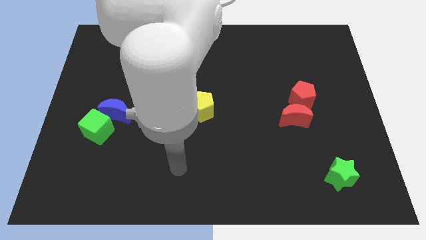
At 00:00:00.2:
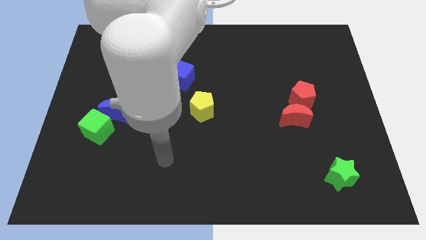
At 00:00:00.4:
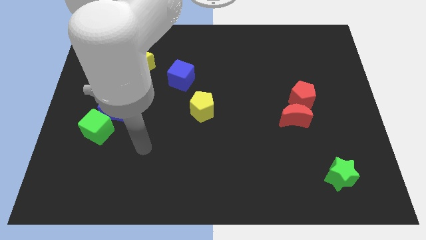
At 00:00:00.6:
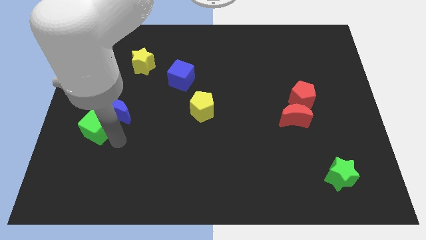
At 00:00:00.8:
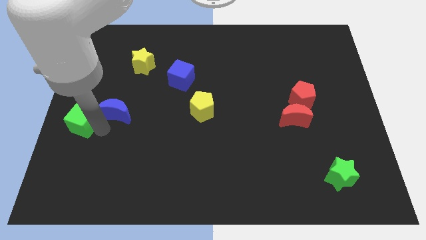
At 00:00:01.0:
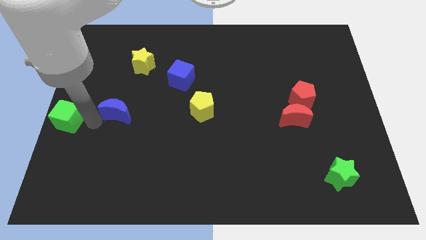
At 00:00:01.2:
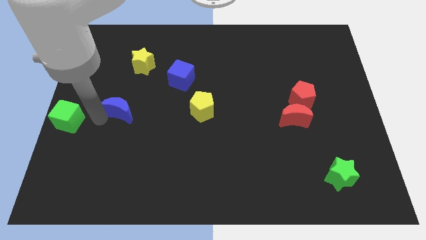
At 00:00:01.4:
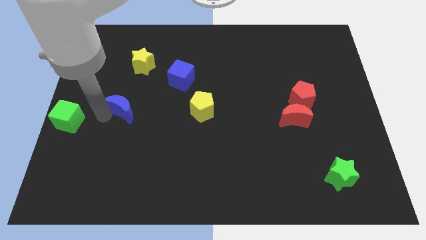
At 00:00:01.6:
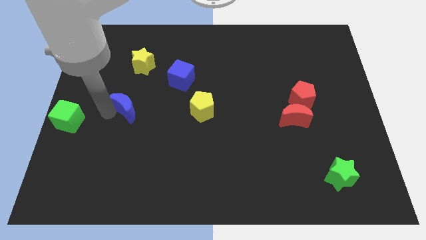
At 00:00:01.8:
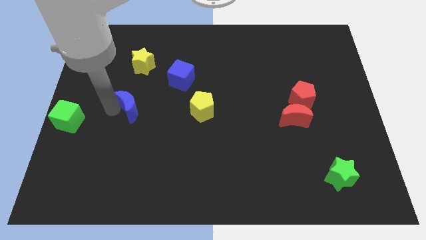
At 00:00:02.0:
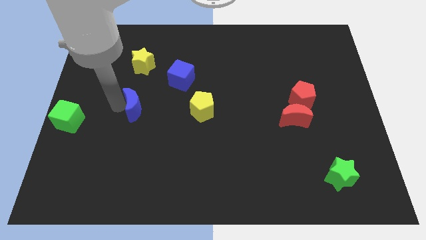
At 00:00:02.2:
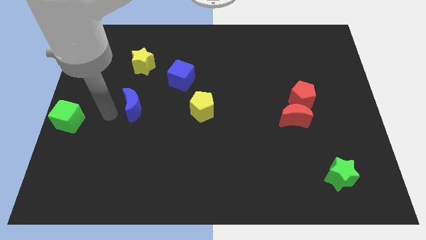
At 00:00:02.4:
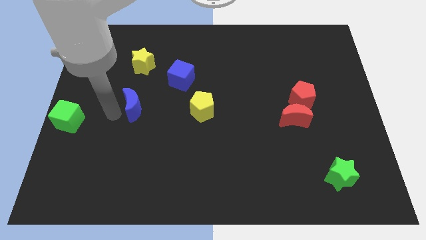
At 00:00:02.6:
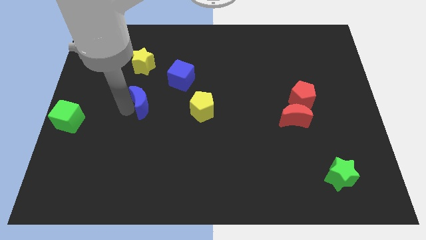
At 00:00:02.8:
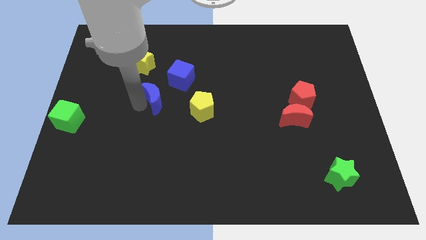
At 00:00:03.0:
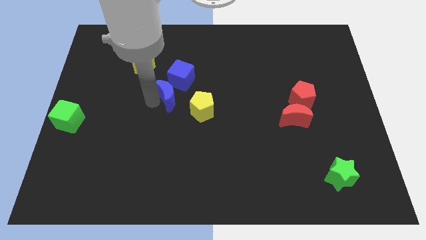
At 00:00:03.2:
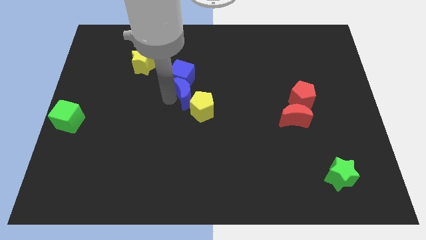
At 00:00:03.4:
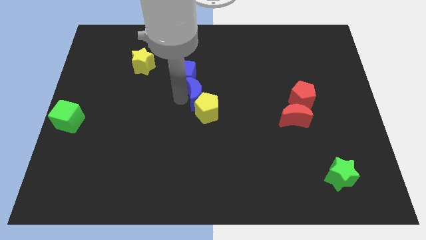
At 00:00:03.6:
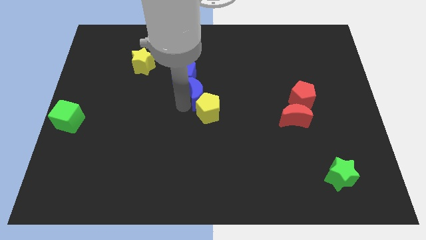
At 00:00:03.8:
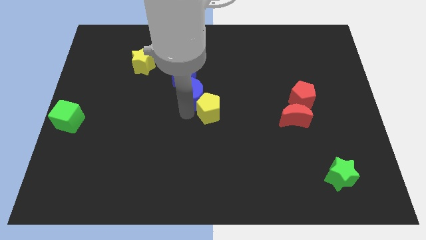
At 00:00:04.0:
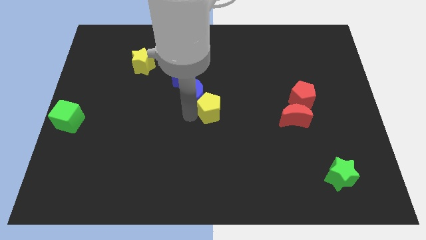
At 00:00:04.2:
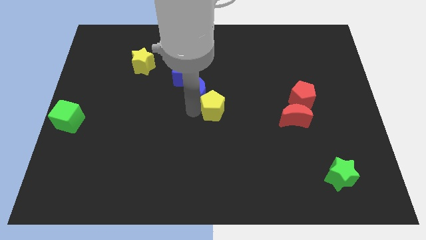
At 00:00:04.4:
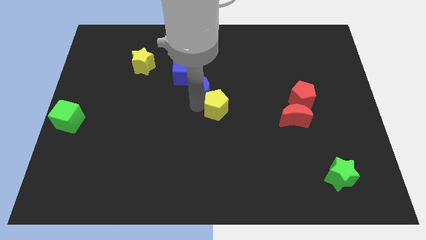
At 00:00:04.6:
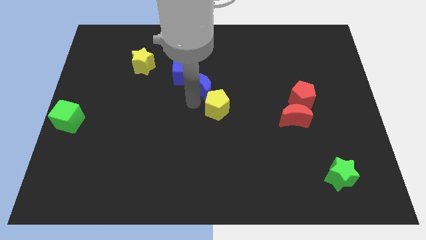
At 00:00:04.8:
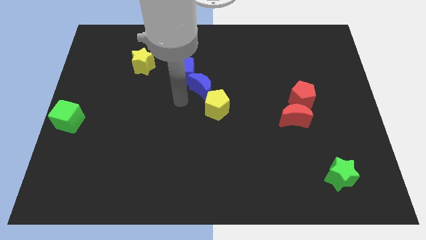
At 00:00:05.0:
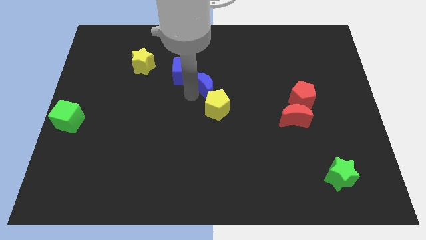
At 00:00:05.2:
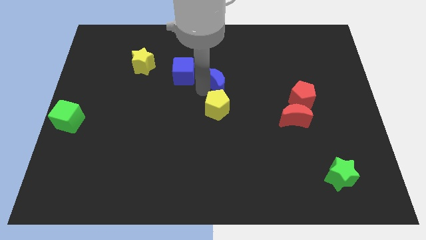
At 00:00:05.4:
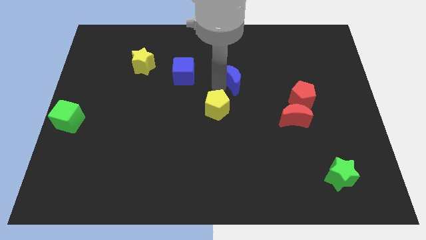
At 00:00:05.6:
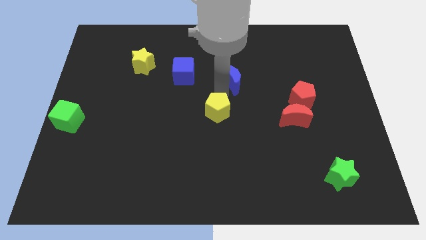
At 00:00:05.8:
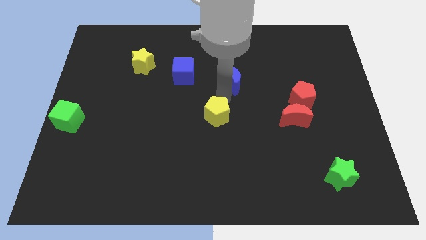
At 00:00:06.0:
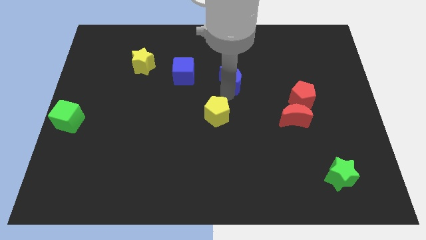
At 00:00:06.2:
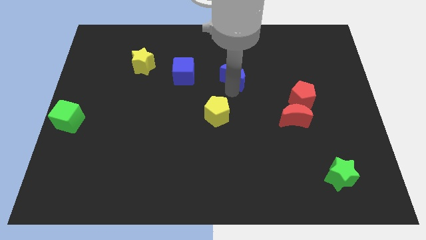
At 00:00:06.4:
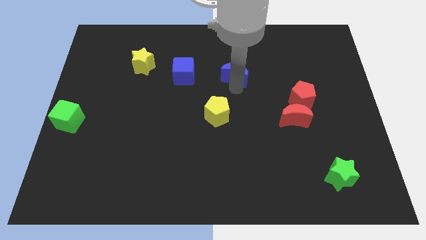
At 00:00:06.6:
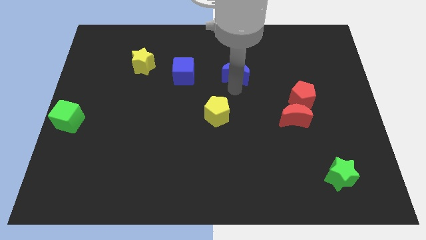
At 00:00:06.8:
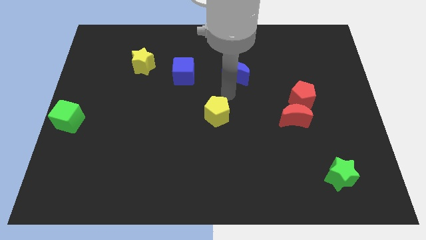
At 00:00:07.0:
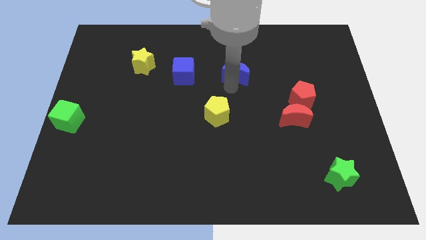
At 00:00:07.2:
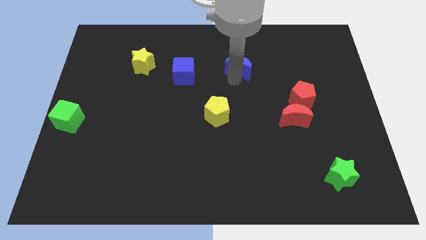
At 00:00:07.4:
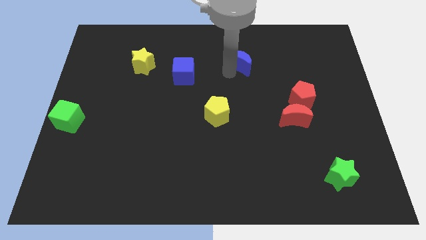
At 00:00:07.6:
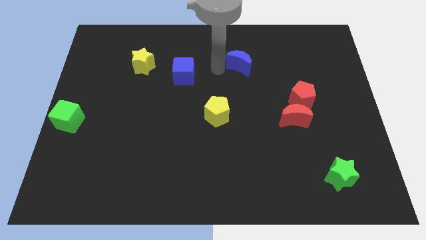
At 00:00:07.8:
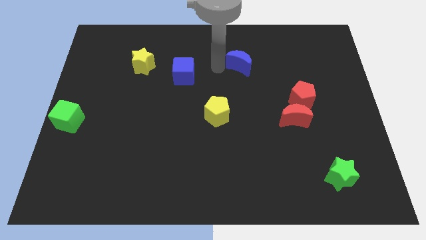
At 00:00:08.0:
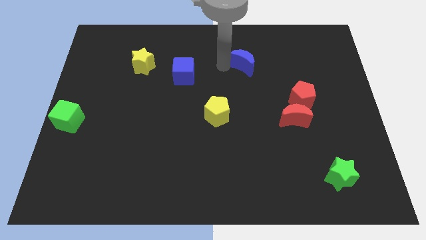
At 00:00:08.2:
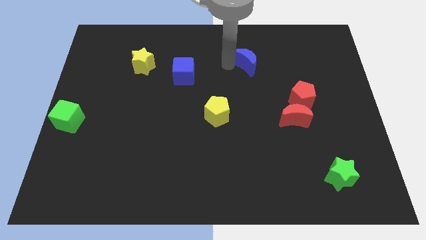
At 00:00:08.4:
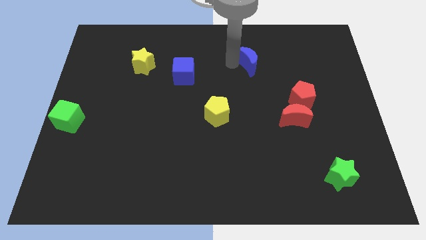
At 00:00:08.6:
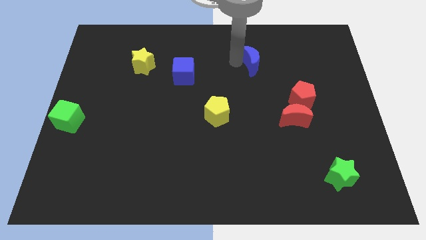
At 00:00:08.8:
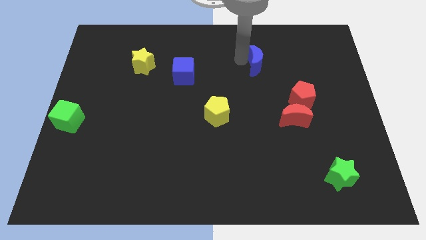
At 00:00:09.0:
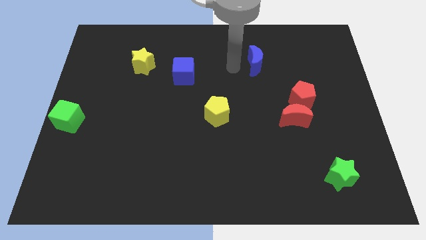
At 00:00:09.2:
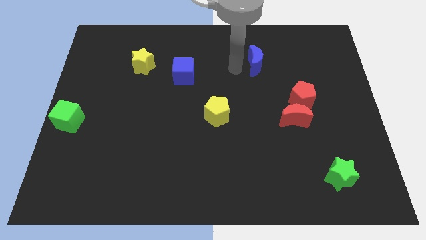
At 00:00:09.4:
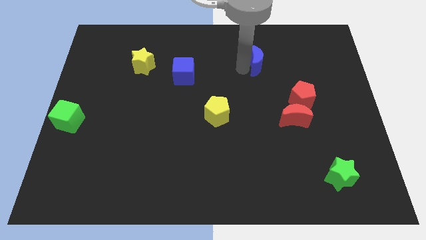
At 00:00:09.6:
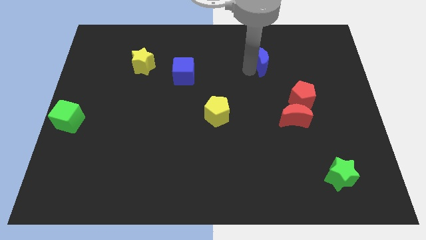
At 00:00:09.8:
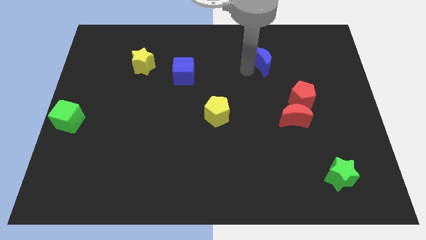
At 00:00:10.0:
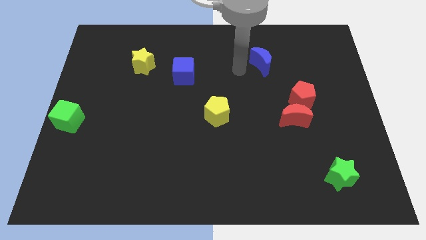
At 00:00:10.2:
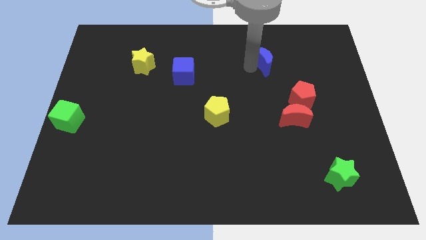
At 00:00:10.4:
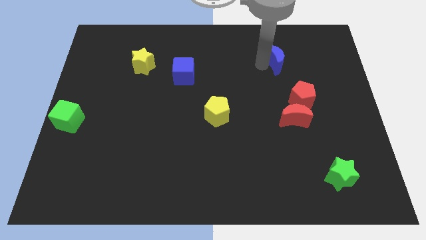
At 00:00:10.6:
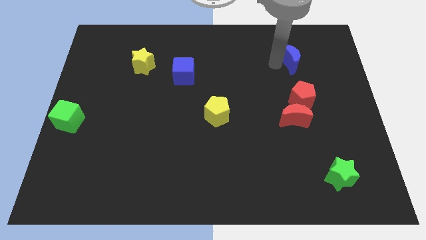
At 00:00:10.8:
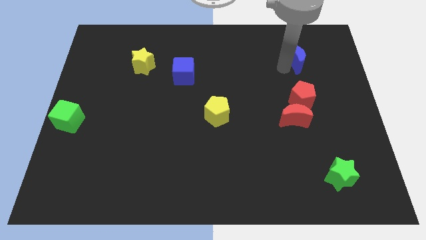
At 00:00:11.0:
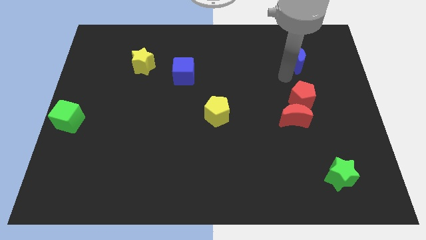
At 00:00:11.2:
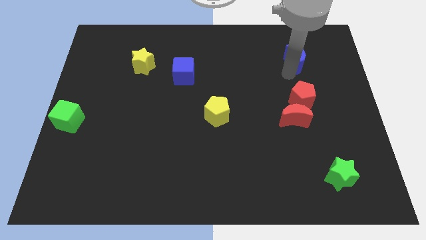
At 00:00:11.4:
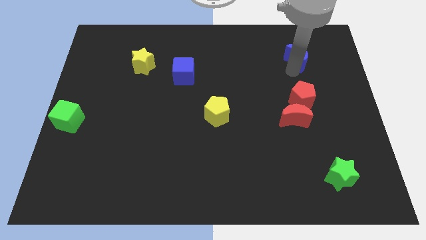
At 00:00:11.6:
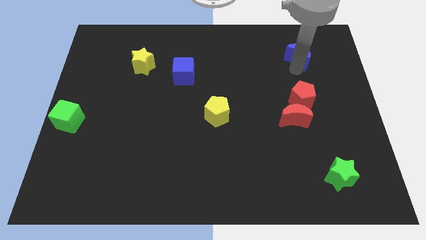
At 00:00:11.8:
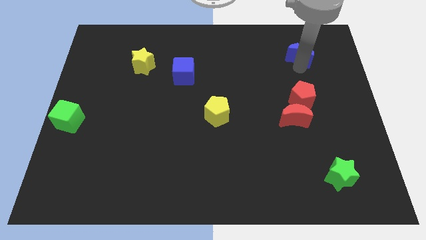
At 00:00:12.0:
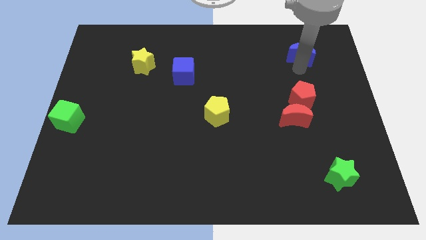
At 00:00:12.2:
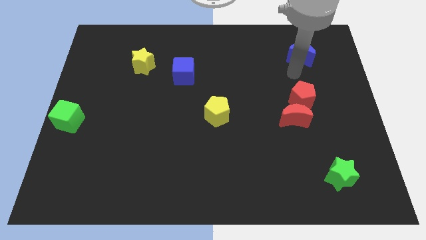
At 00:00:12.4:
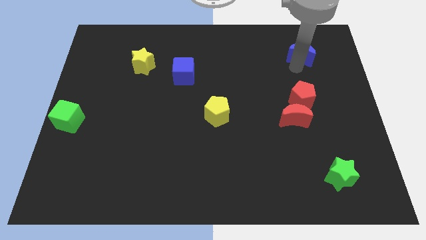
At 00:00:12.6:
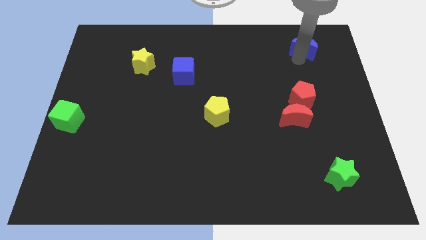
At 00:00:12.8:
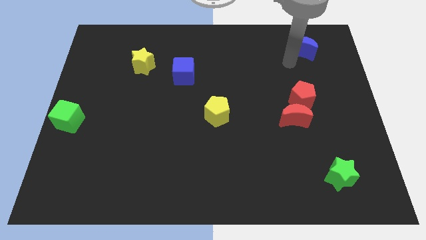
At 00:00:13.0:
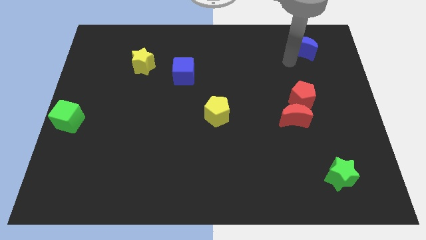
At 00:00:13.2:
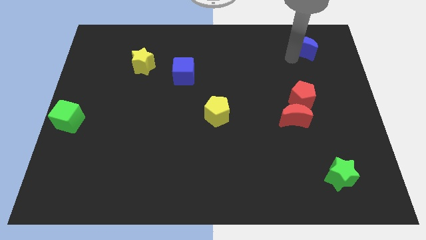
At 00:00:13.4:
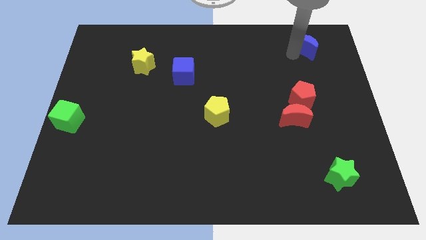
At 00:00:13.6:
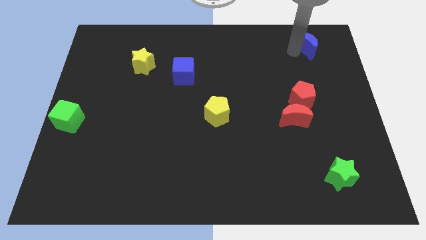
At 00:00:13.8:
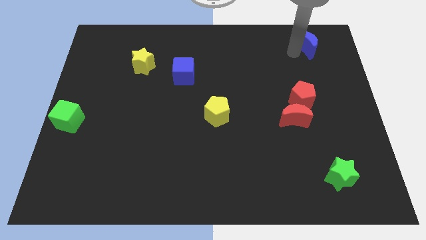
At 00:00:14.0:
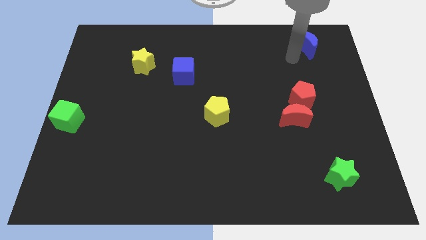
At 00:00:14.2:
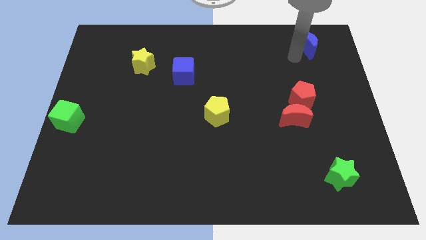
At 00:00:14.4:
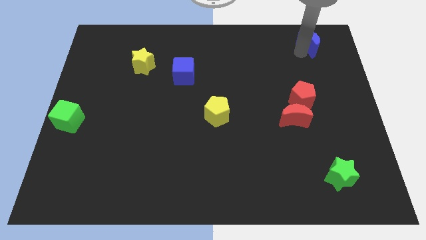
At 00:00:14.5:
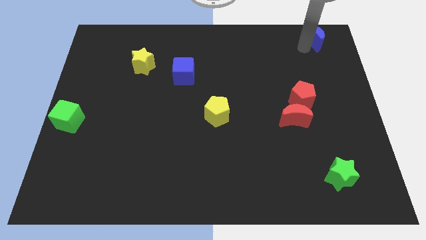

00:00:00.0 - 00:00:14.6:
put the blue moon to the top right corner
